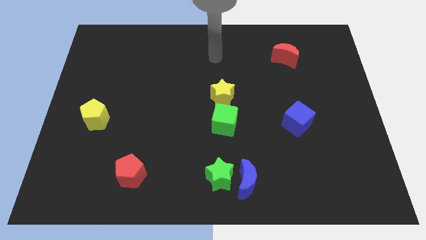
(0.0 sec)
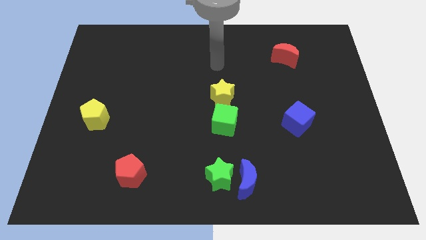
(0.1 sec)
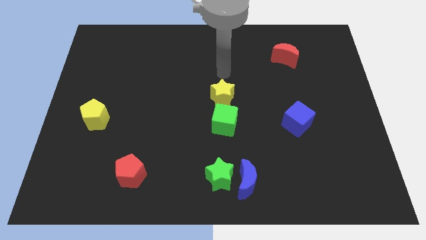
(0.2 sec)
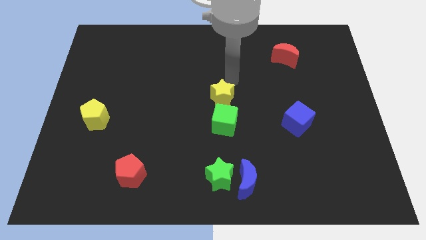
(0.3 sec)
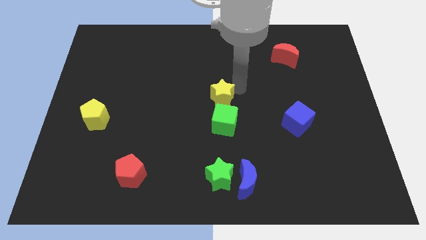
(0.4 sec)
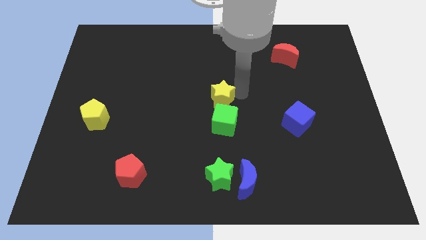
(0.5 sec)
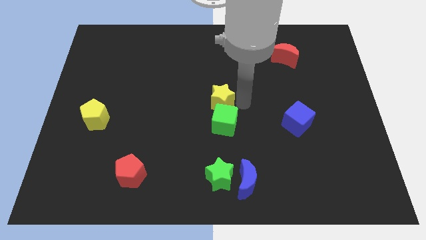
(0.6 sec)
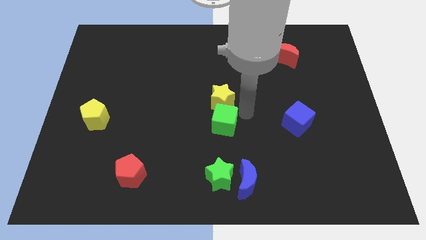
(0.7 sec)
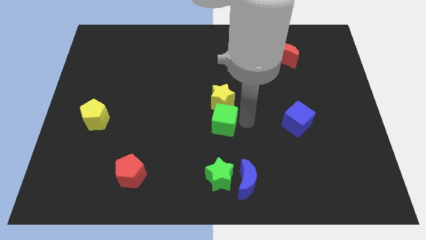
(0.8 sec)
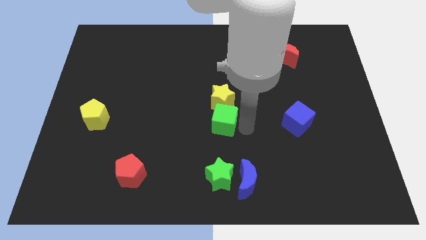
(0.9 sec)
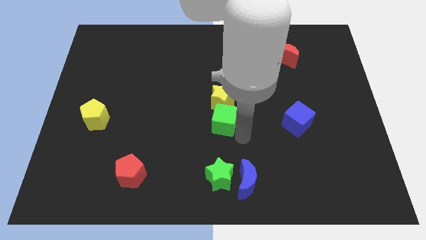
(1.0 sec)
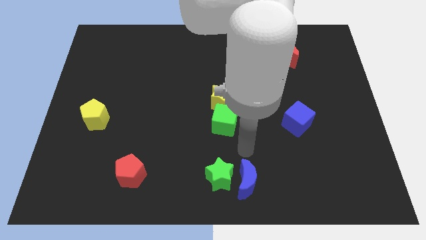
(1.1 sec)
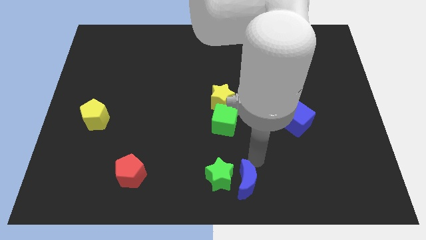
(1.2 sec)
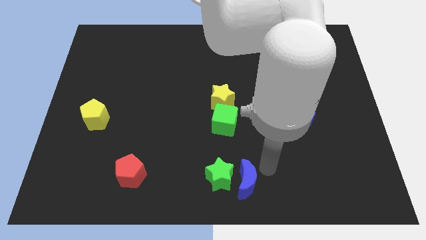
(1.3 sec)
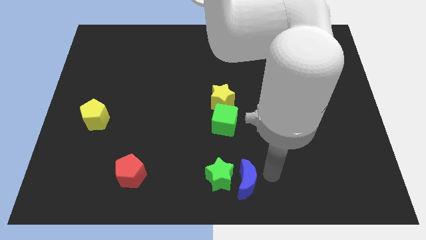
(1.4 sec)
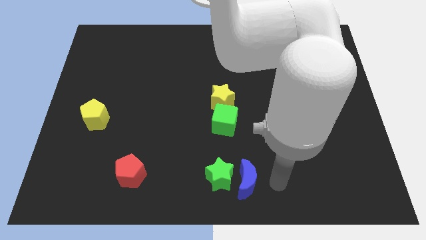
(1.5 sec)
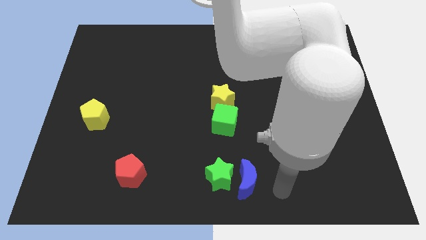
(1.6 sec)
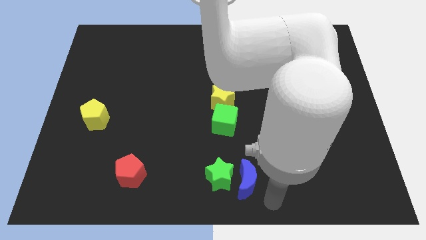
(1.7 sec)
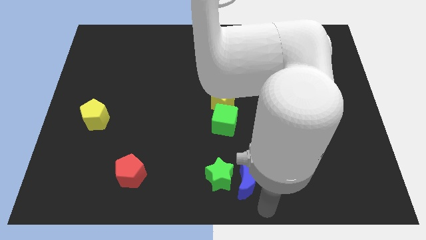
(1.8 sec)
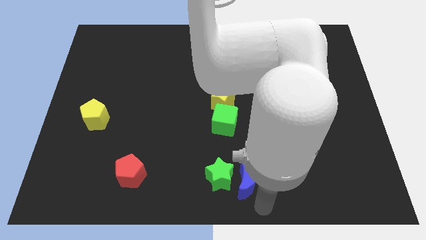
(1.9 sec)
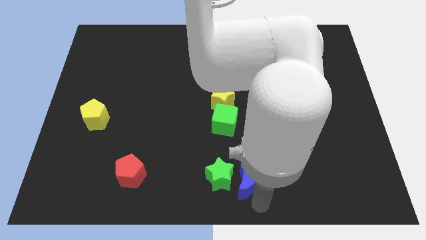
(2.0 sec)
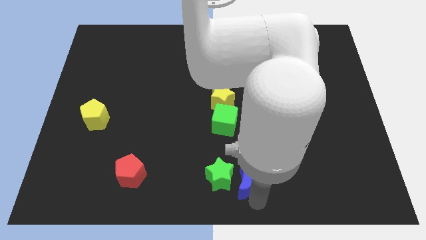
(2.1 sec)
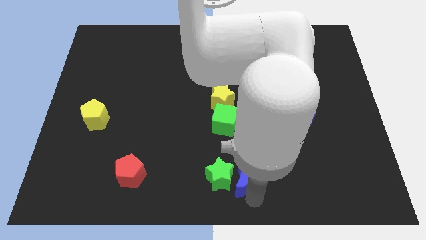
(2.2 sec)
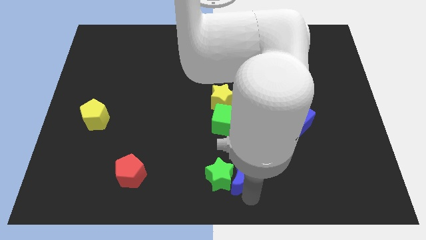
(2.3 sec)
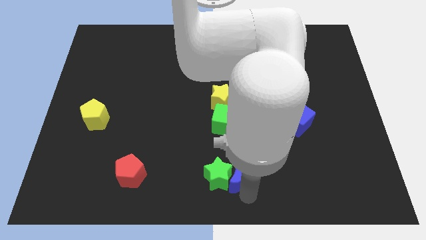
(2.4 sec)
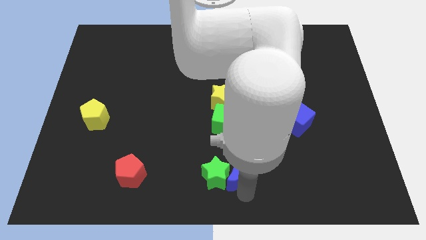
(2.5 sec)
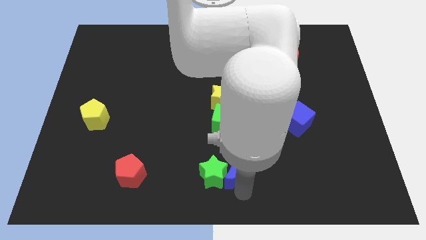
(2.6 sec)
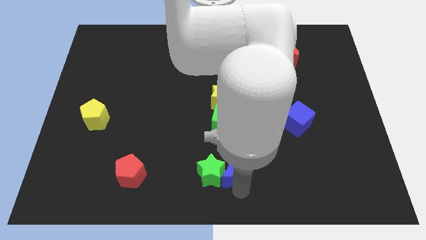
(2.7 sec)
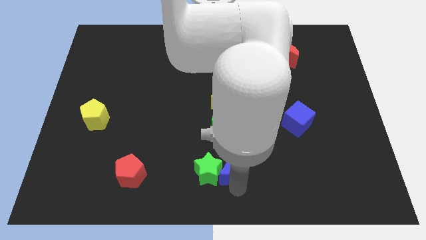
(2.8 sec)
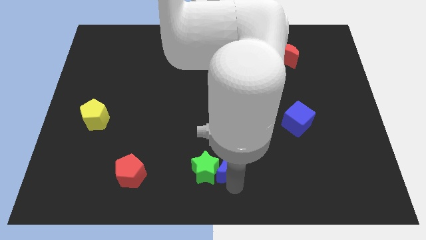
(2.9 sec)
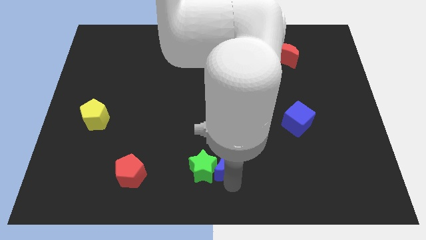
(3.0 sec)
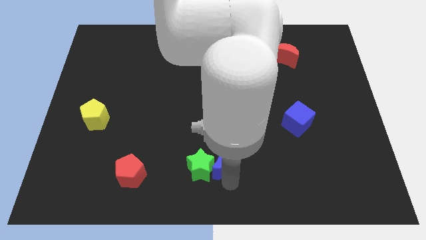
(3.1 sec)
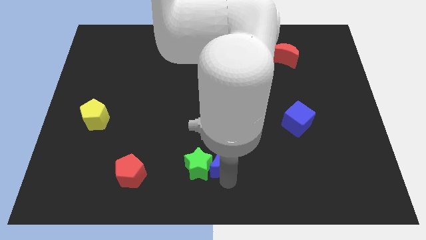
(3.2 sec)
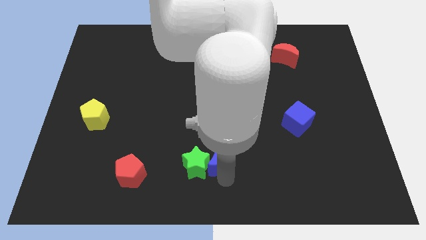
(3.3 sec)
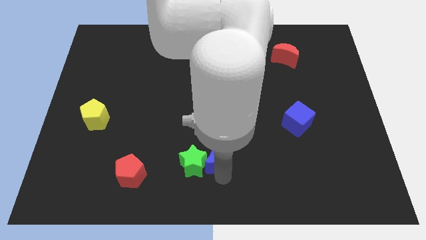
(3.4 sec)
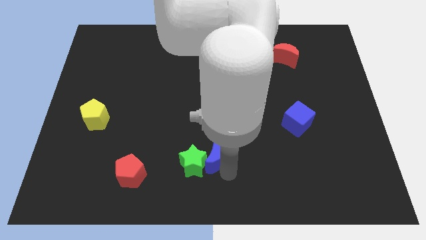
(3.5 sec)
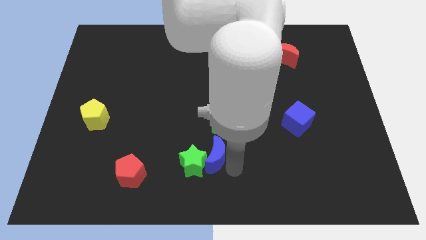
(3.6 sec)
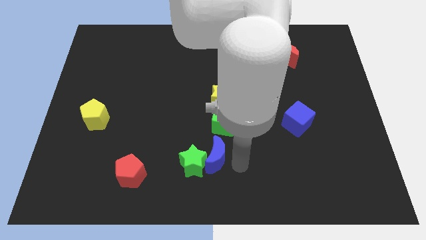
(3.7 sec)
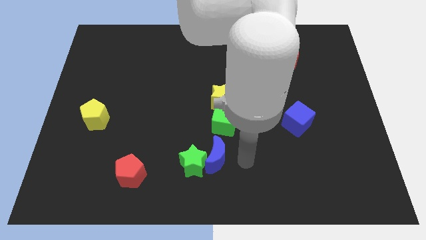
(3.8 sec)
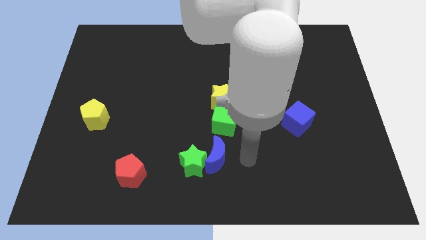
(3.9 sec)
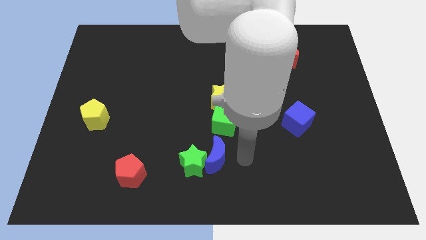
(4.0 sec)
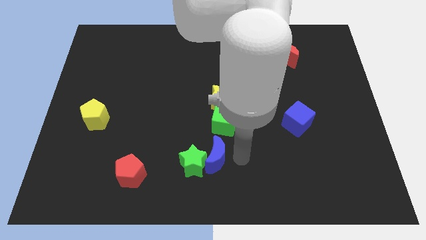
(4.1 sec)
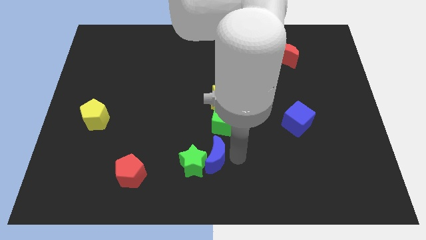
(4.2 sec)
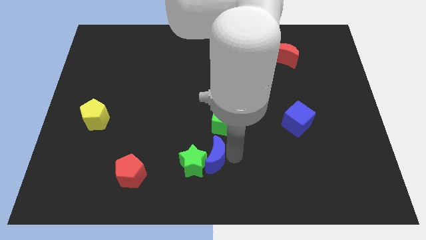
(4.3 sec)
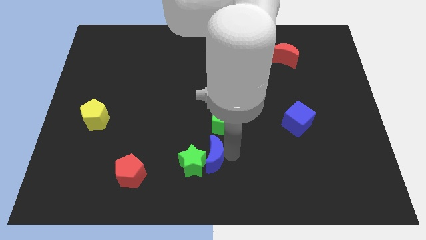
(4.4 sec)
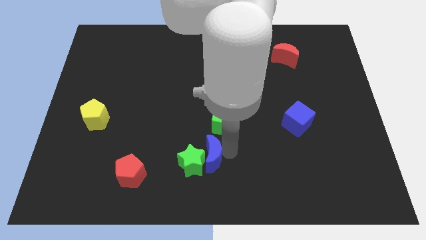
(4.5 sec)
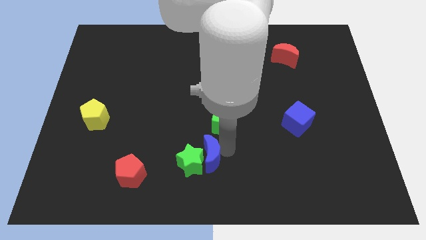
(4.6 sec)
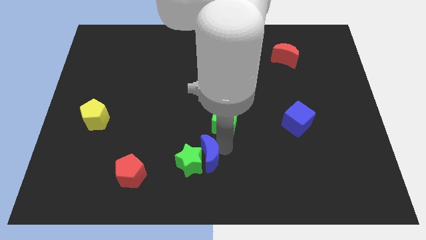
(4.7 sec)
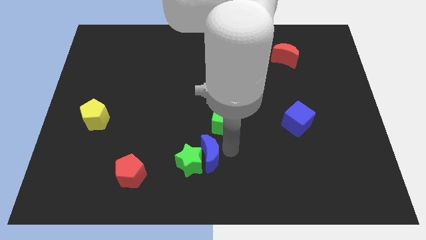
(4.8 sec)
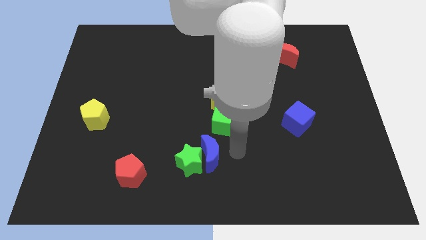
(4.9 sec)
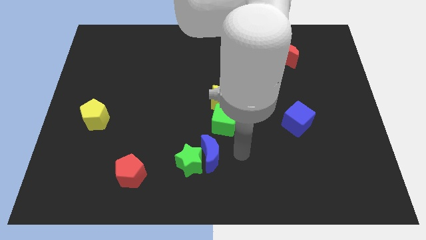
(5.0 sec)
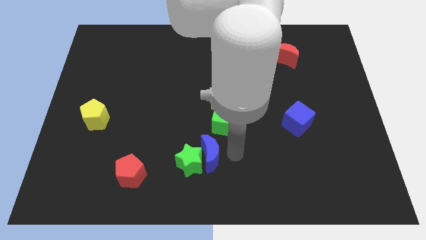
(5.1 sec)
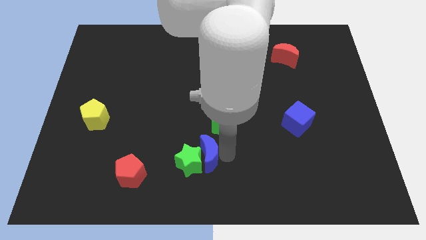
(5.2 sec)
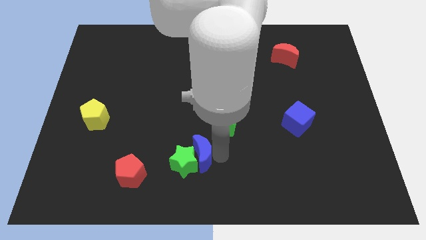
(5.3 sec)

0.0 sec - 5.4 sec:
move the blue moon a little left

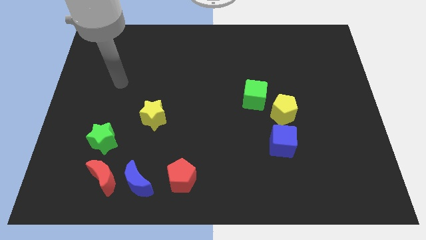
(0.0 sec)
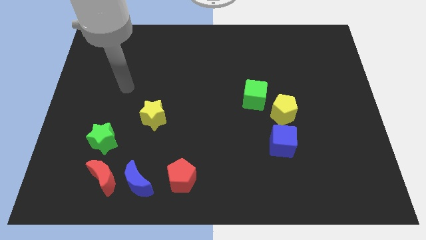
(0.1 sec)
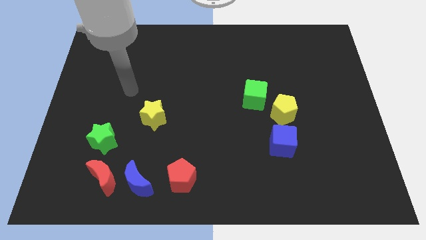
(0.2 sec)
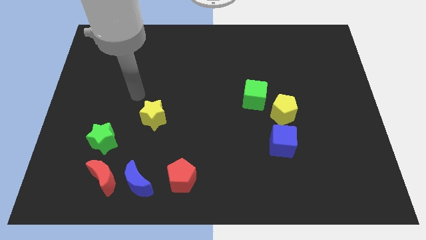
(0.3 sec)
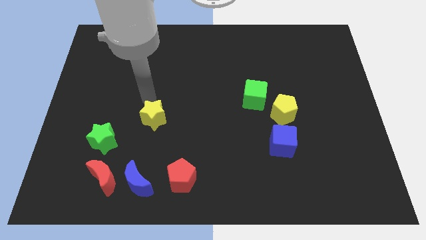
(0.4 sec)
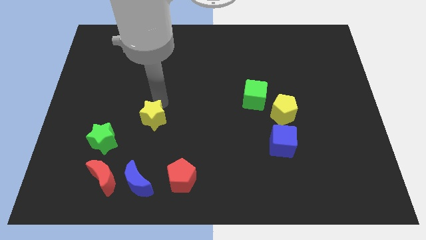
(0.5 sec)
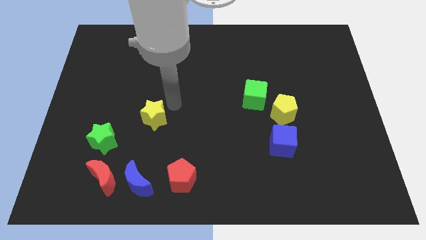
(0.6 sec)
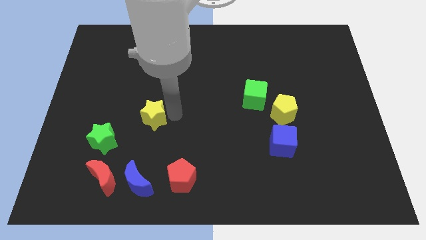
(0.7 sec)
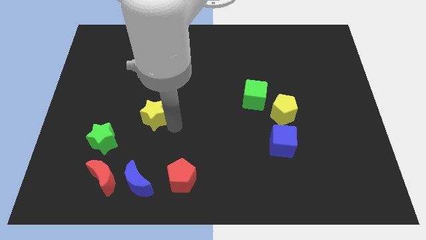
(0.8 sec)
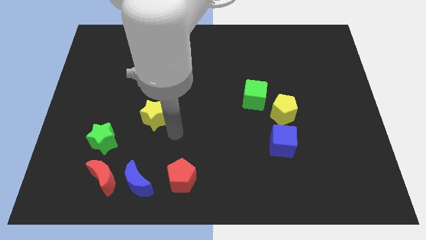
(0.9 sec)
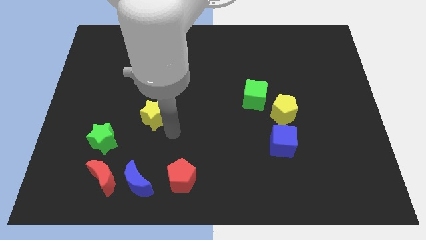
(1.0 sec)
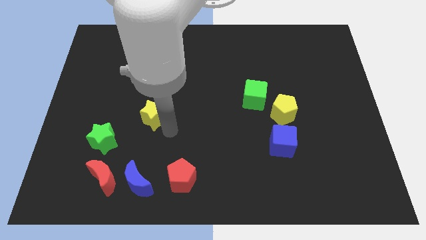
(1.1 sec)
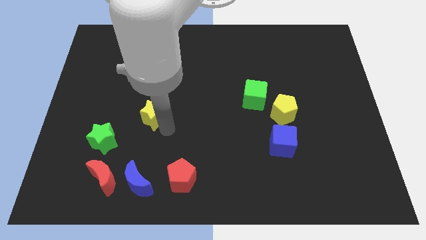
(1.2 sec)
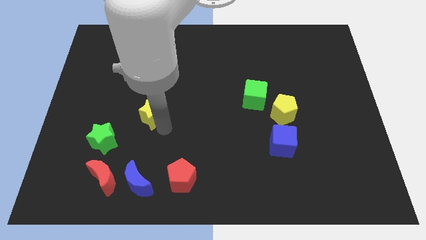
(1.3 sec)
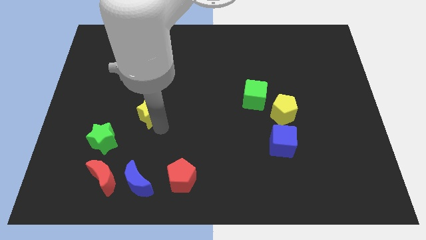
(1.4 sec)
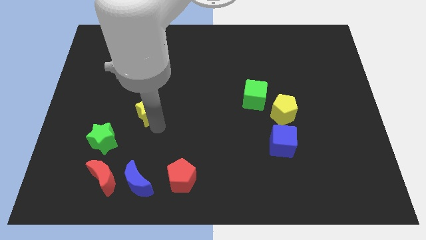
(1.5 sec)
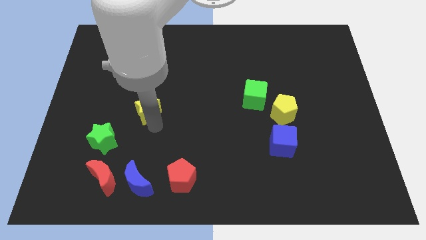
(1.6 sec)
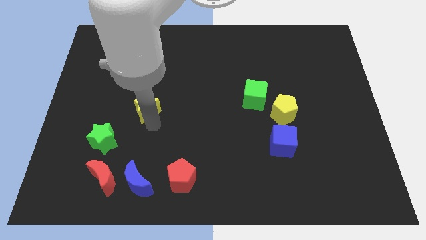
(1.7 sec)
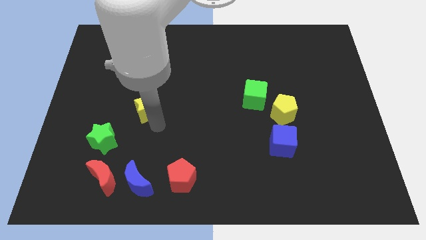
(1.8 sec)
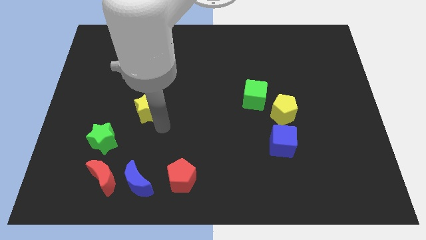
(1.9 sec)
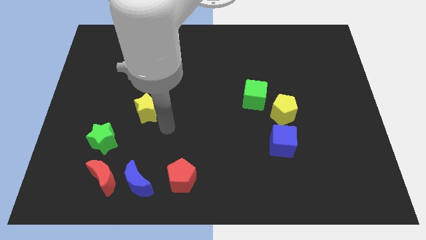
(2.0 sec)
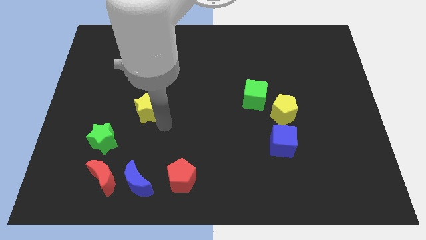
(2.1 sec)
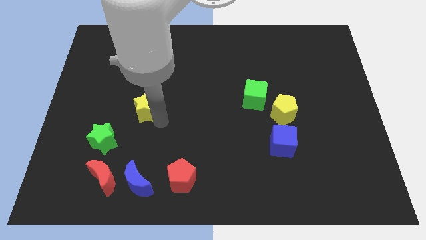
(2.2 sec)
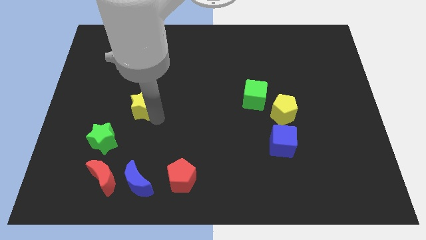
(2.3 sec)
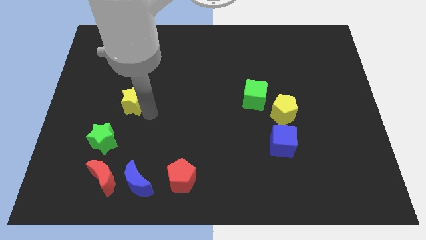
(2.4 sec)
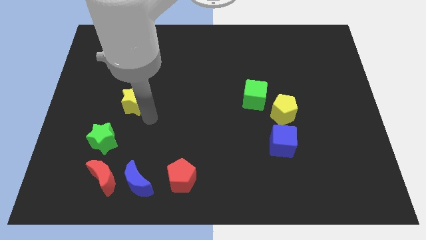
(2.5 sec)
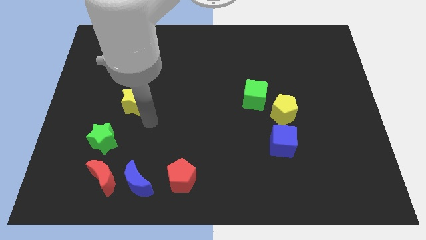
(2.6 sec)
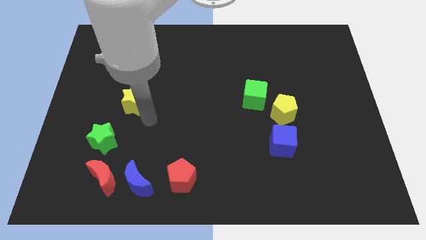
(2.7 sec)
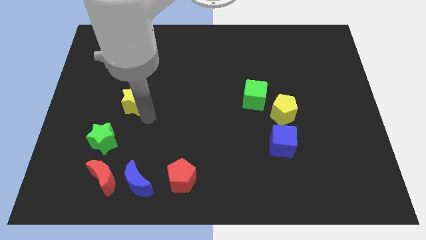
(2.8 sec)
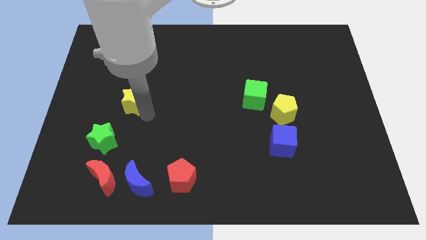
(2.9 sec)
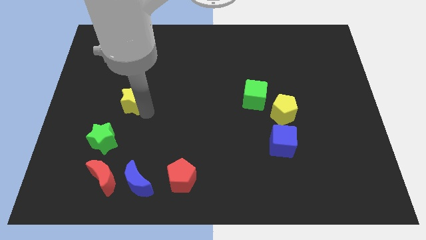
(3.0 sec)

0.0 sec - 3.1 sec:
move the yellow star a little bit up and to the left
